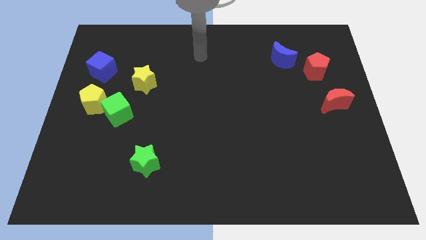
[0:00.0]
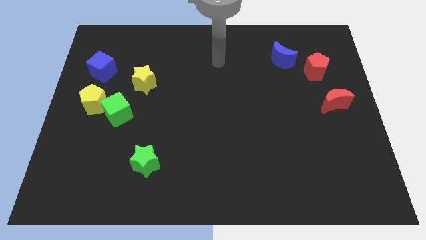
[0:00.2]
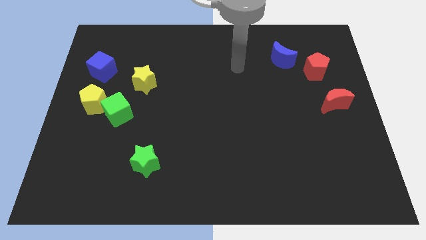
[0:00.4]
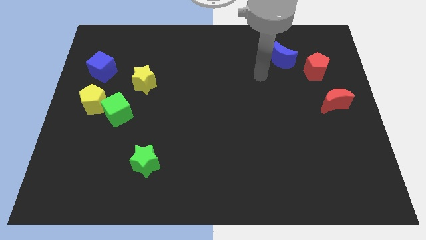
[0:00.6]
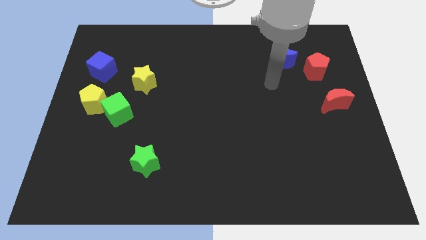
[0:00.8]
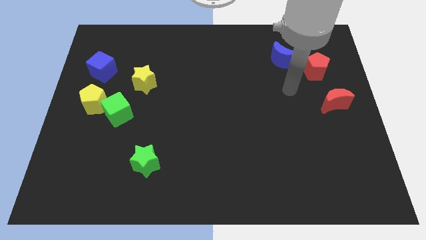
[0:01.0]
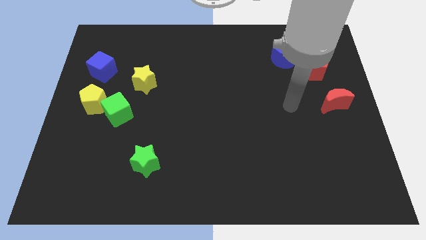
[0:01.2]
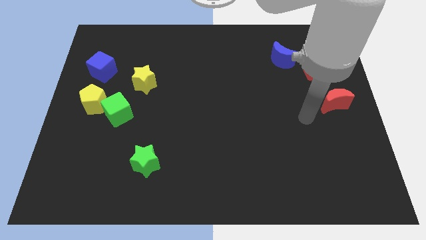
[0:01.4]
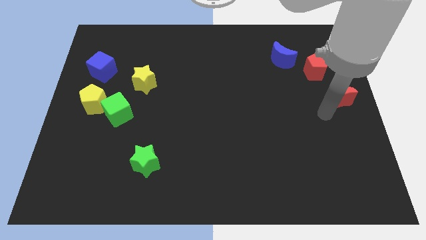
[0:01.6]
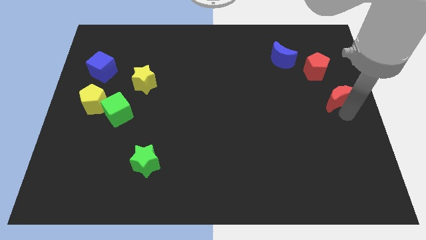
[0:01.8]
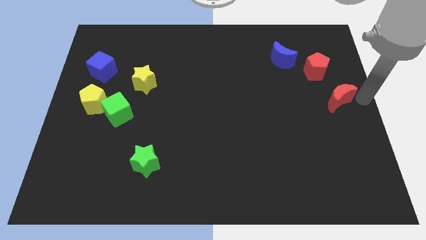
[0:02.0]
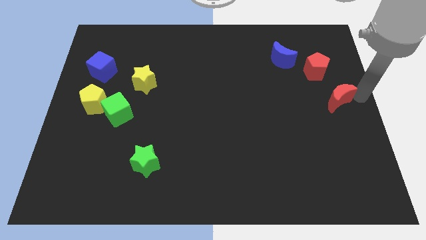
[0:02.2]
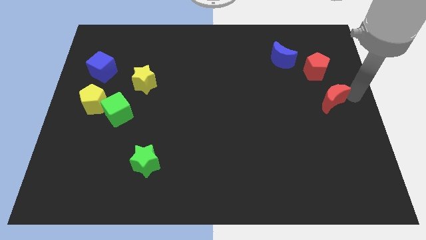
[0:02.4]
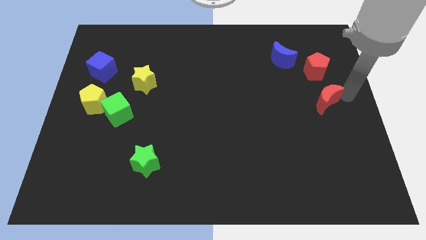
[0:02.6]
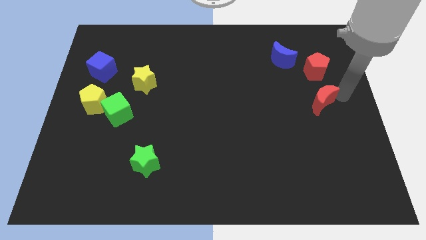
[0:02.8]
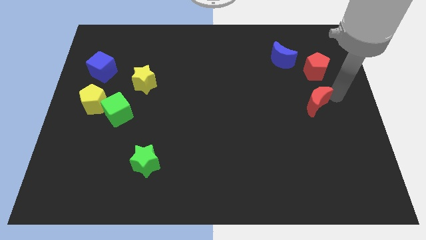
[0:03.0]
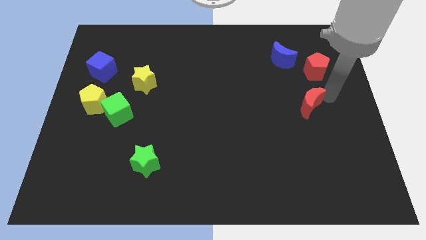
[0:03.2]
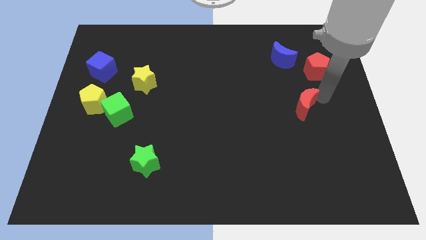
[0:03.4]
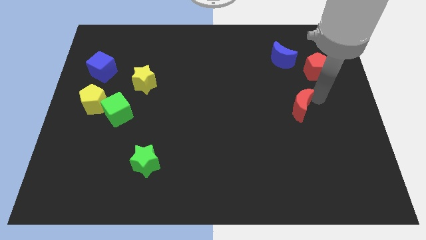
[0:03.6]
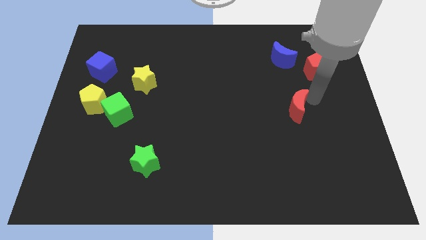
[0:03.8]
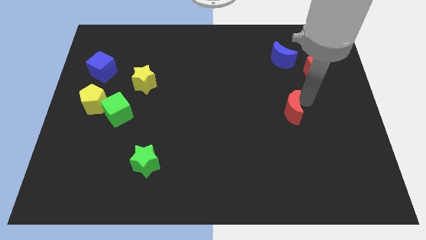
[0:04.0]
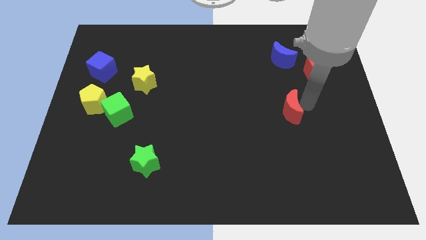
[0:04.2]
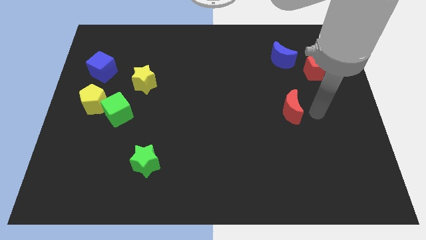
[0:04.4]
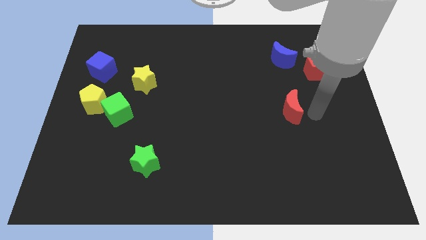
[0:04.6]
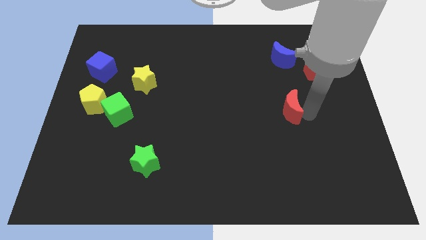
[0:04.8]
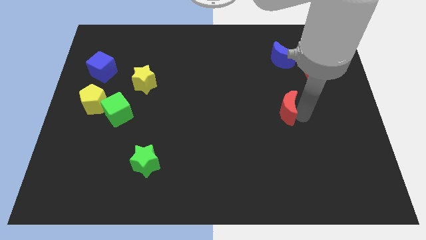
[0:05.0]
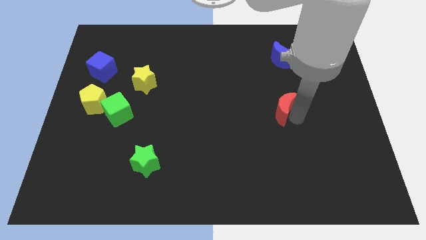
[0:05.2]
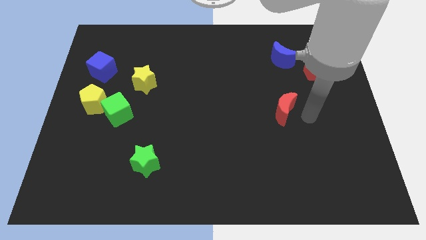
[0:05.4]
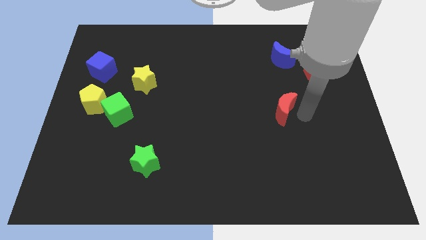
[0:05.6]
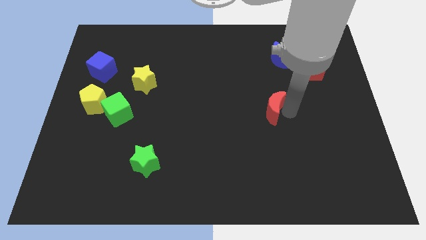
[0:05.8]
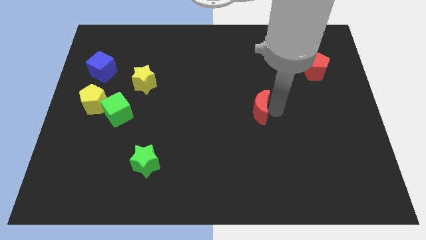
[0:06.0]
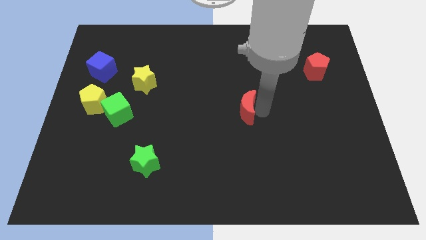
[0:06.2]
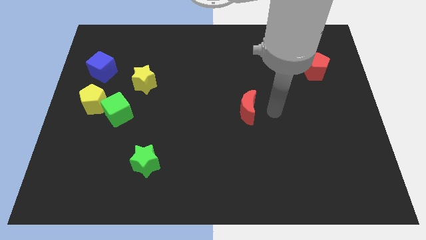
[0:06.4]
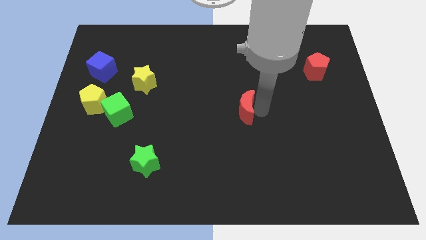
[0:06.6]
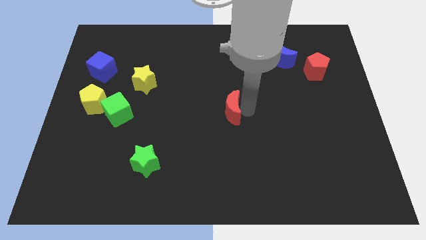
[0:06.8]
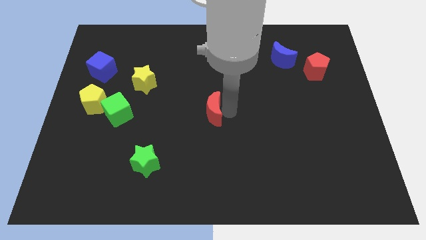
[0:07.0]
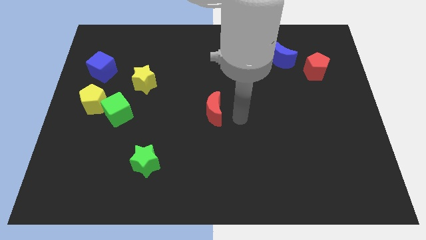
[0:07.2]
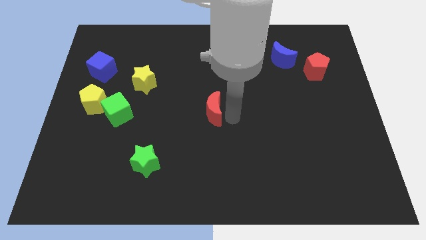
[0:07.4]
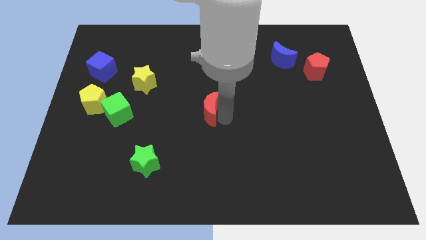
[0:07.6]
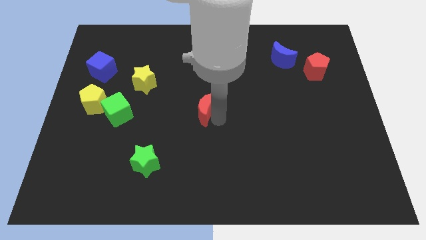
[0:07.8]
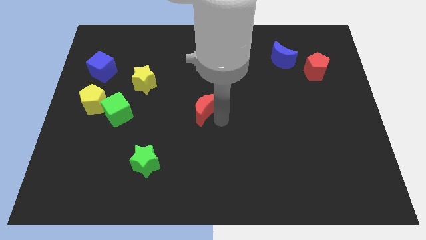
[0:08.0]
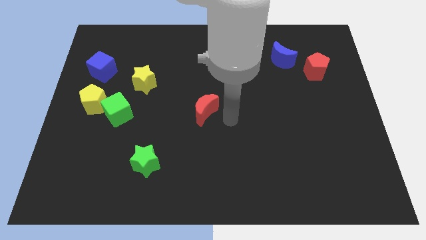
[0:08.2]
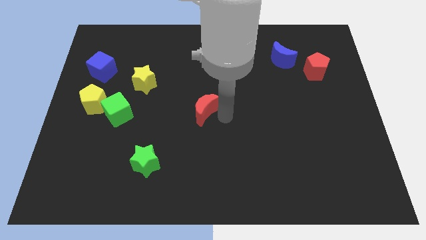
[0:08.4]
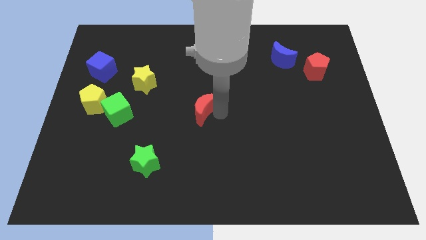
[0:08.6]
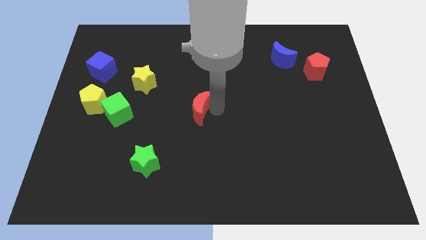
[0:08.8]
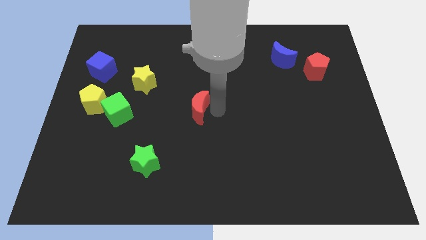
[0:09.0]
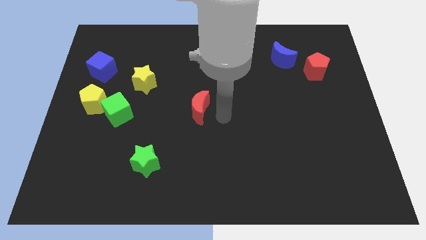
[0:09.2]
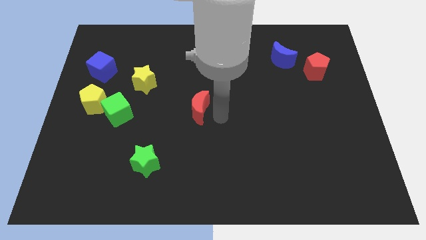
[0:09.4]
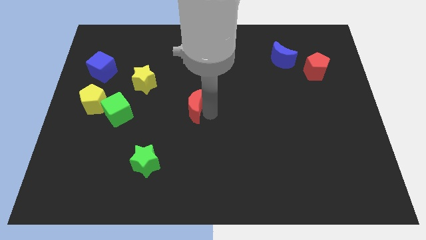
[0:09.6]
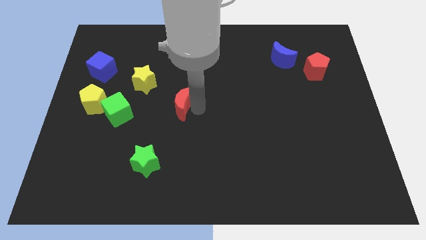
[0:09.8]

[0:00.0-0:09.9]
slide the red moon to the bottom right side of the yellow star

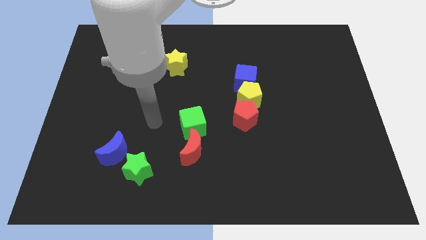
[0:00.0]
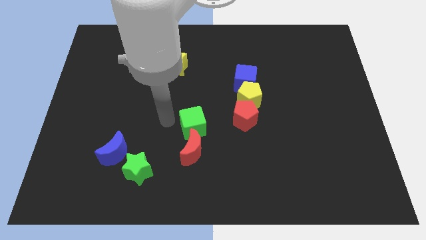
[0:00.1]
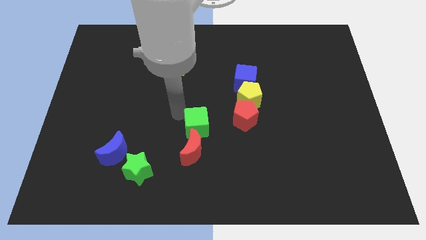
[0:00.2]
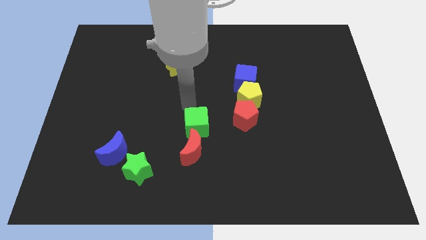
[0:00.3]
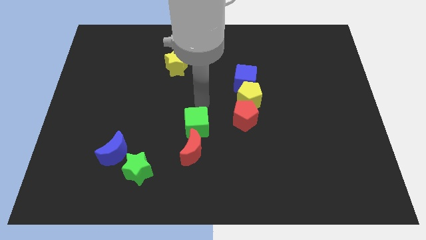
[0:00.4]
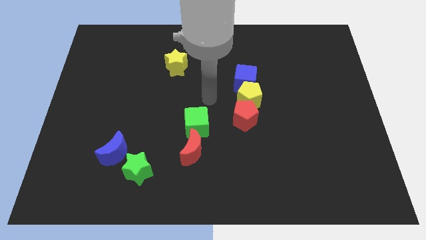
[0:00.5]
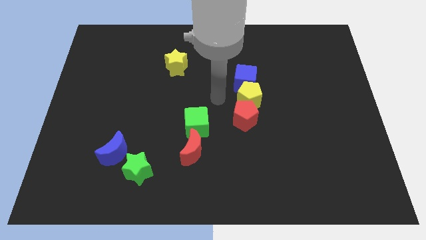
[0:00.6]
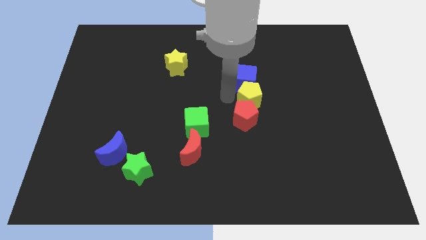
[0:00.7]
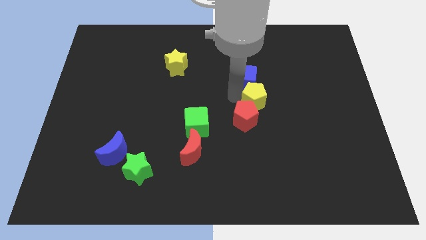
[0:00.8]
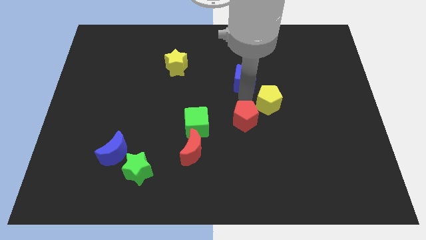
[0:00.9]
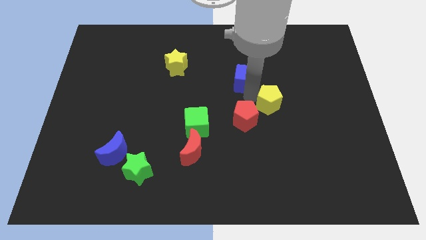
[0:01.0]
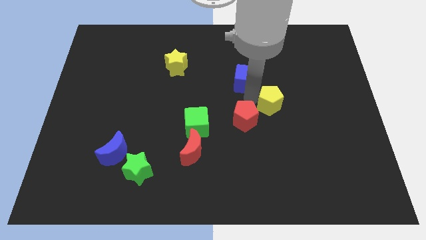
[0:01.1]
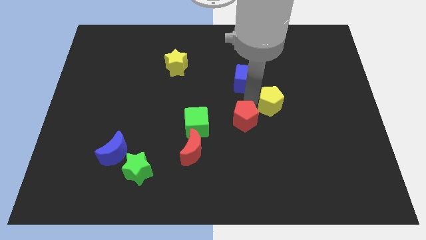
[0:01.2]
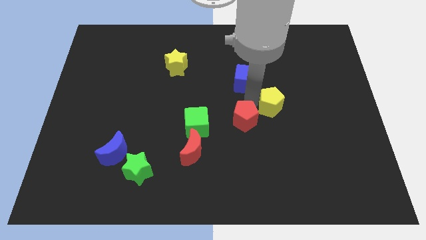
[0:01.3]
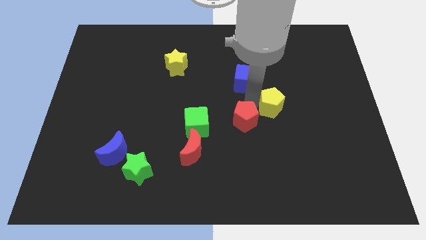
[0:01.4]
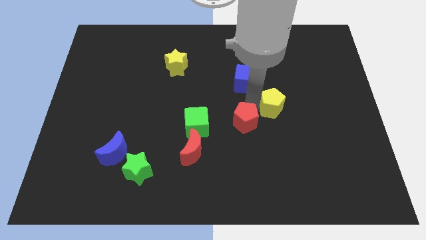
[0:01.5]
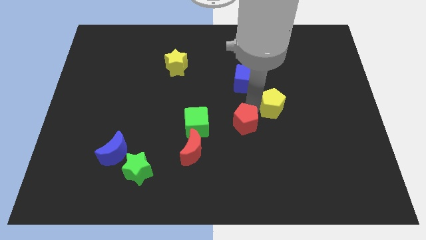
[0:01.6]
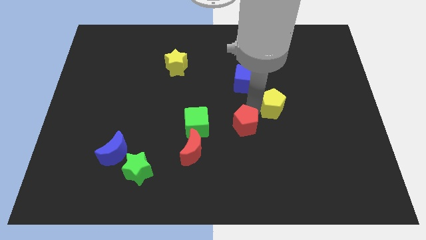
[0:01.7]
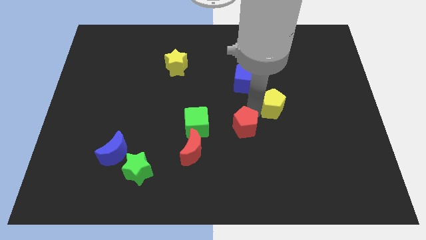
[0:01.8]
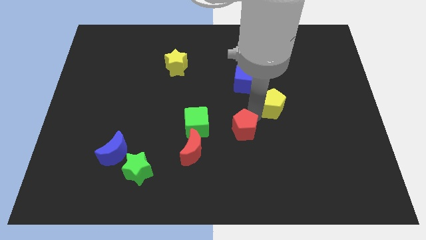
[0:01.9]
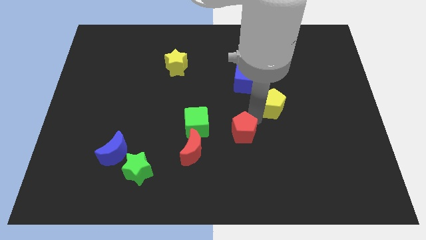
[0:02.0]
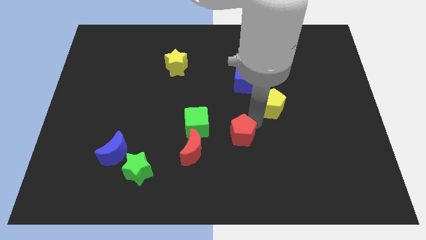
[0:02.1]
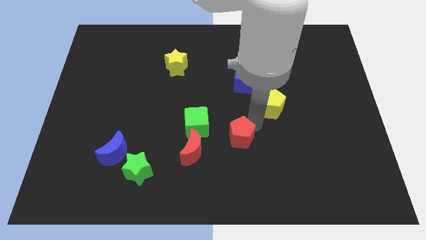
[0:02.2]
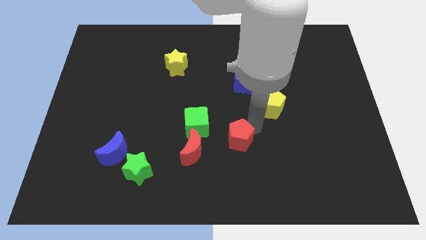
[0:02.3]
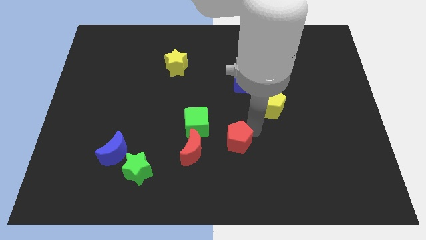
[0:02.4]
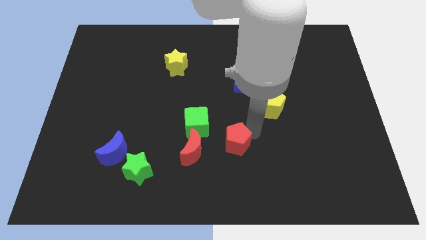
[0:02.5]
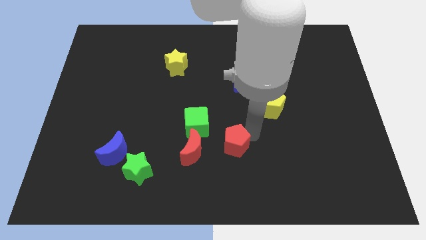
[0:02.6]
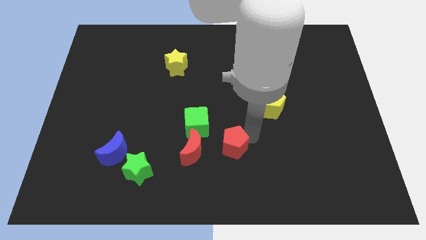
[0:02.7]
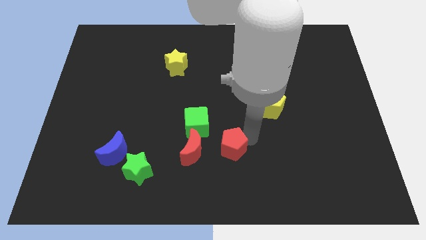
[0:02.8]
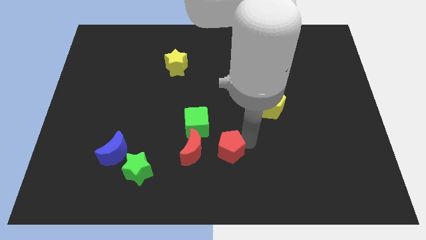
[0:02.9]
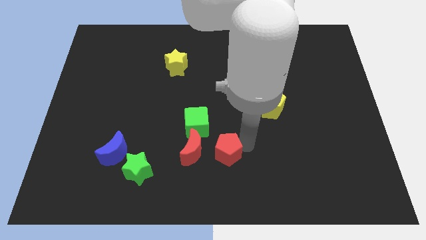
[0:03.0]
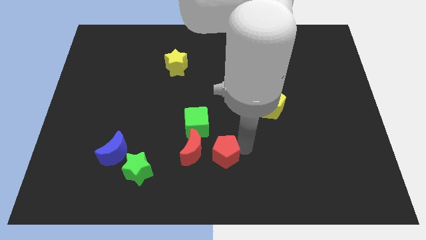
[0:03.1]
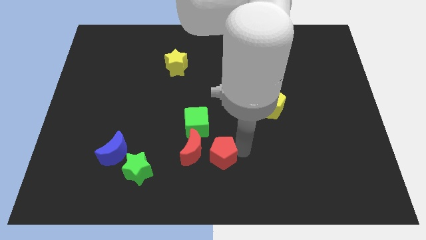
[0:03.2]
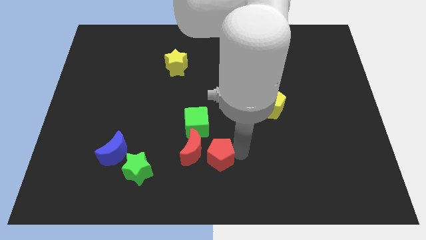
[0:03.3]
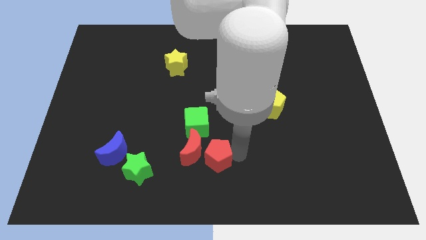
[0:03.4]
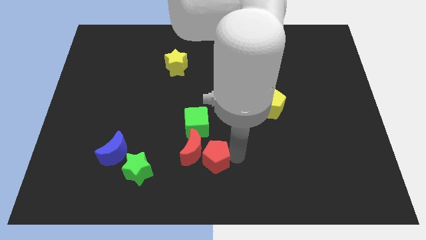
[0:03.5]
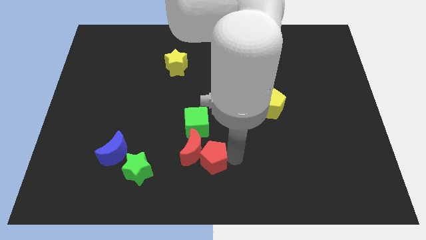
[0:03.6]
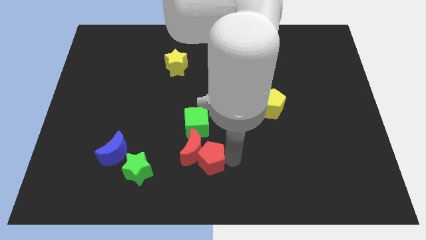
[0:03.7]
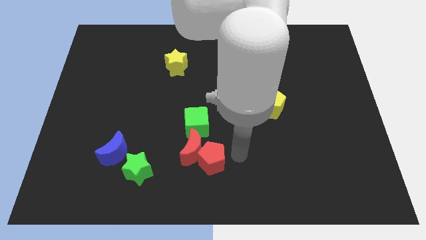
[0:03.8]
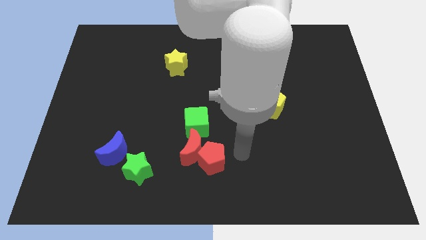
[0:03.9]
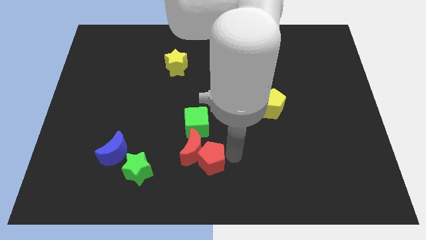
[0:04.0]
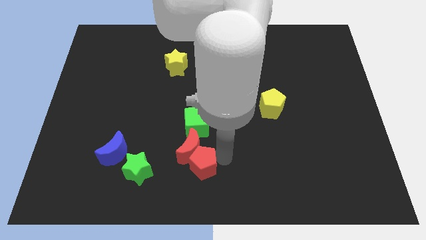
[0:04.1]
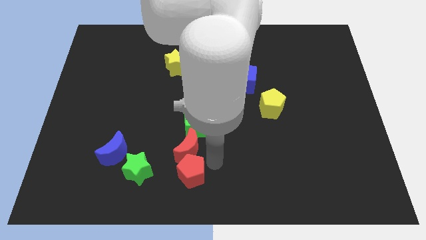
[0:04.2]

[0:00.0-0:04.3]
slide the red pentagon diagonally down and to the left of the red moon
